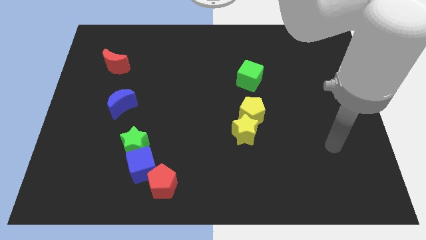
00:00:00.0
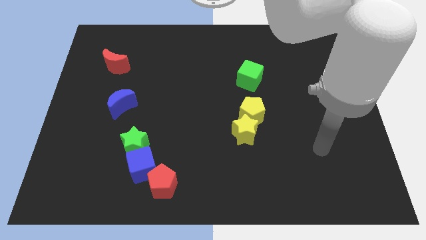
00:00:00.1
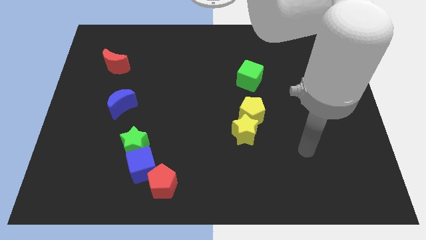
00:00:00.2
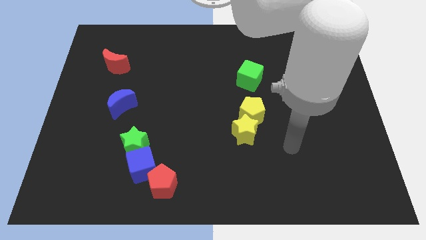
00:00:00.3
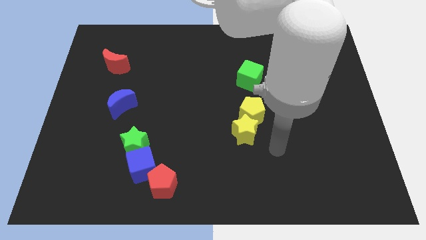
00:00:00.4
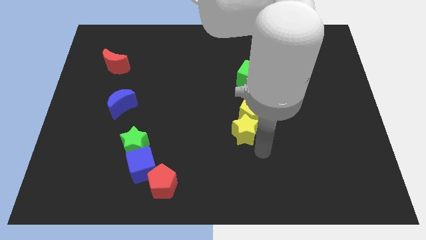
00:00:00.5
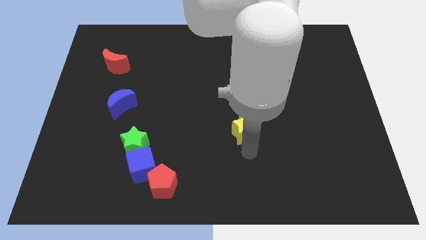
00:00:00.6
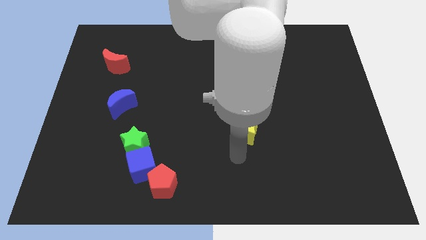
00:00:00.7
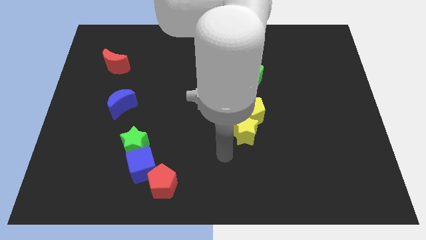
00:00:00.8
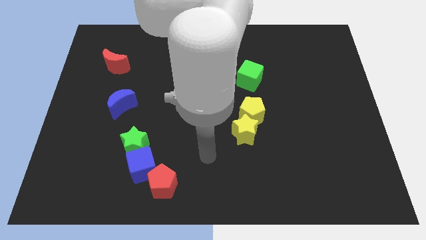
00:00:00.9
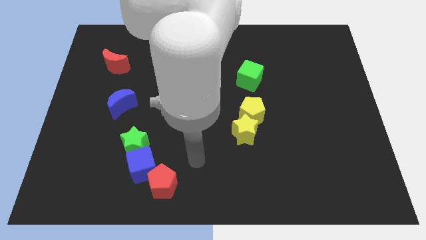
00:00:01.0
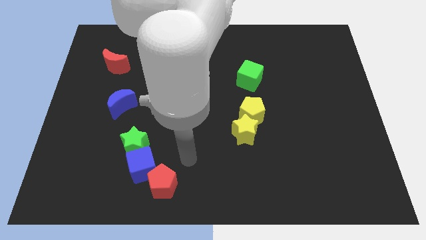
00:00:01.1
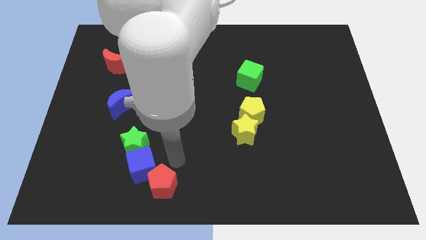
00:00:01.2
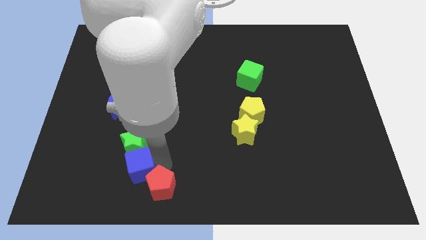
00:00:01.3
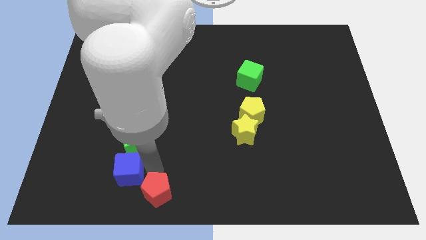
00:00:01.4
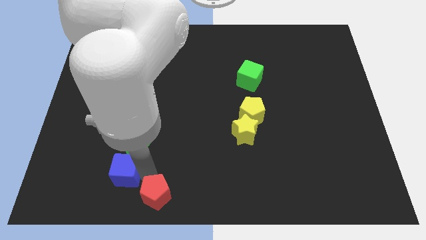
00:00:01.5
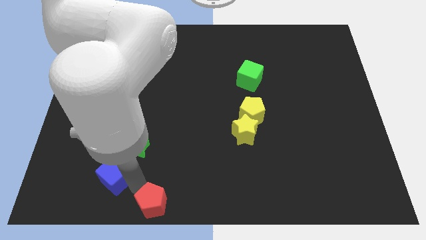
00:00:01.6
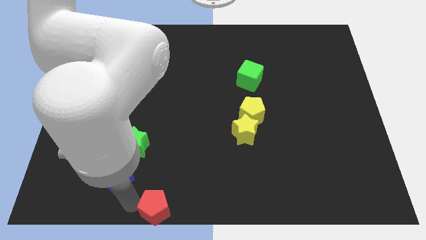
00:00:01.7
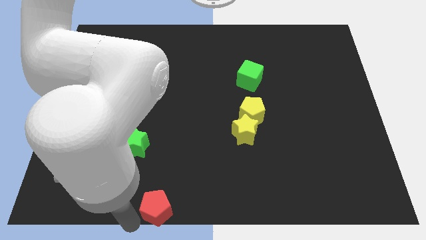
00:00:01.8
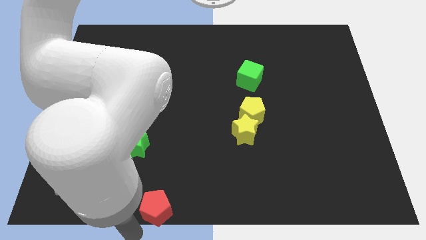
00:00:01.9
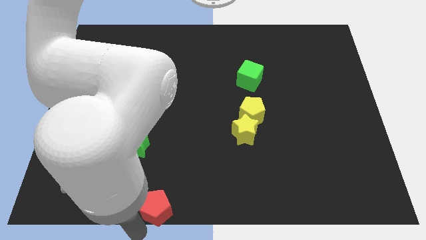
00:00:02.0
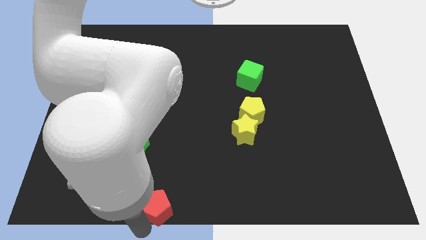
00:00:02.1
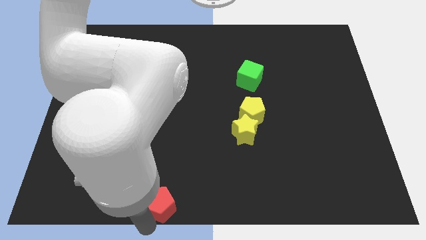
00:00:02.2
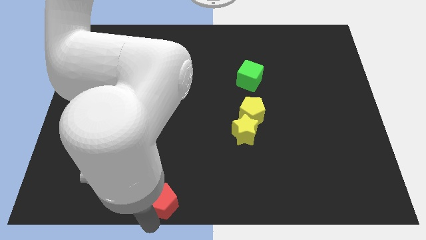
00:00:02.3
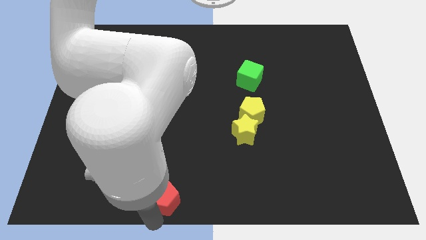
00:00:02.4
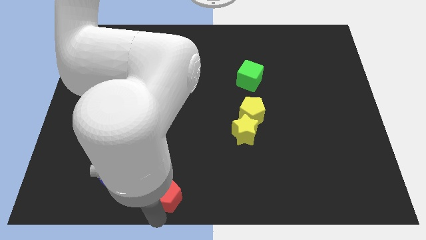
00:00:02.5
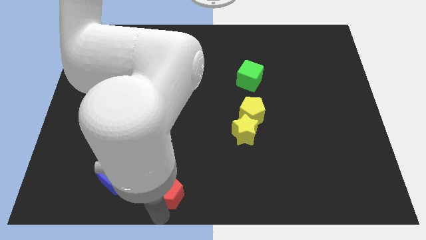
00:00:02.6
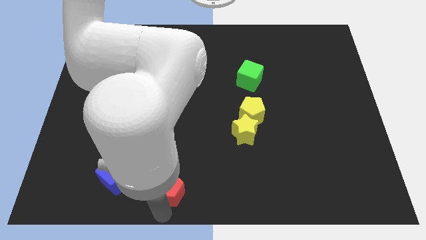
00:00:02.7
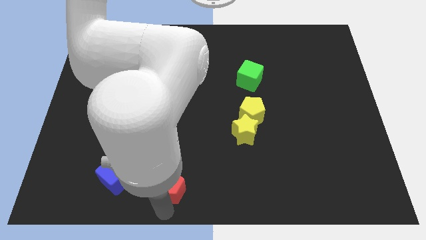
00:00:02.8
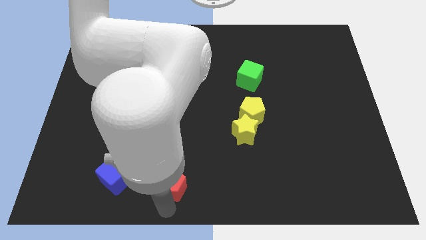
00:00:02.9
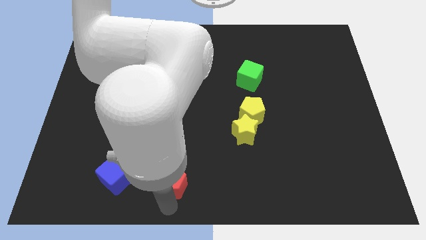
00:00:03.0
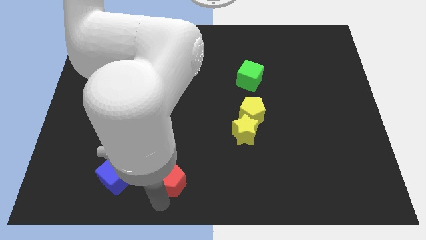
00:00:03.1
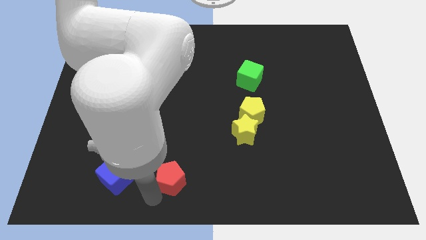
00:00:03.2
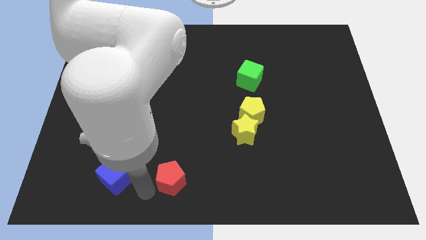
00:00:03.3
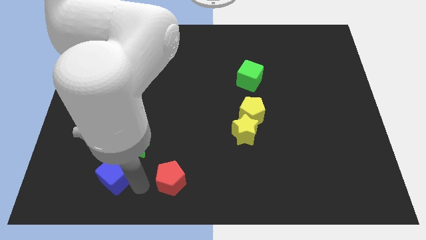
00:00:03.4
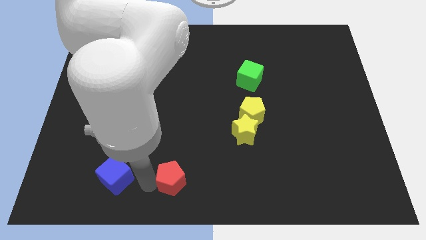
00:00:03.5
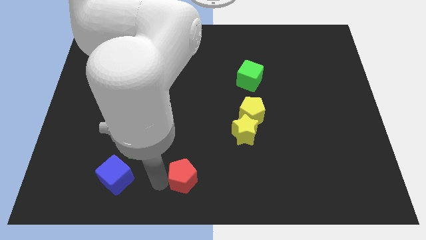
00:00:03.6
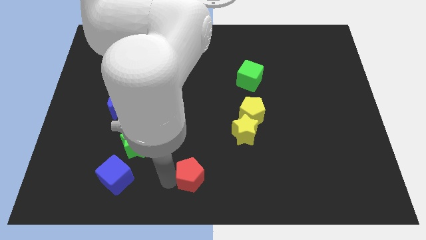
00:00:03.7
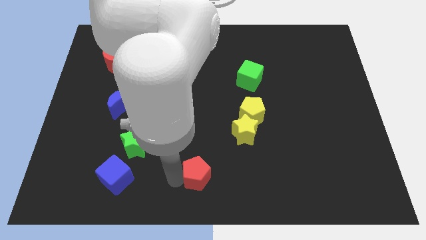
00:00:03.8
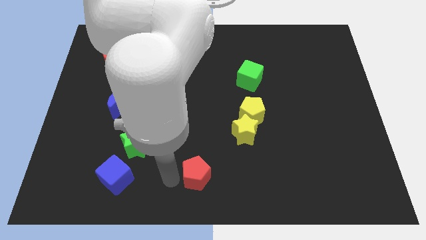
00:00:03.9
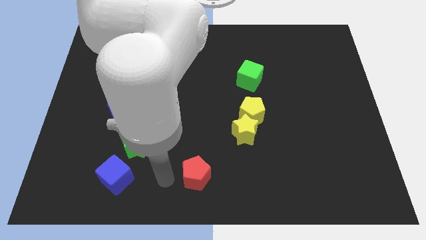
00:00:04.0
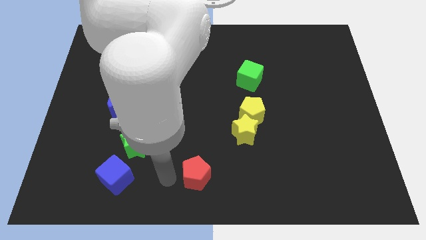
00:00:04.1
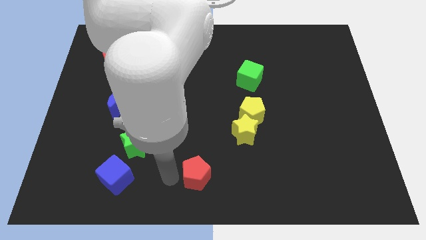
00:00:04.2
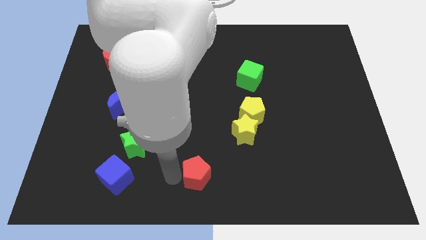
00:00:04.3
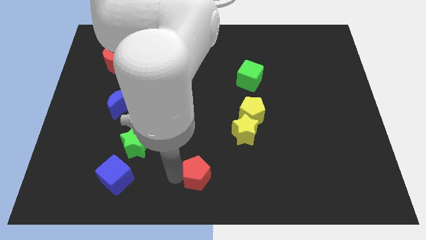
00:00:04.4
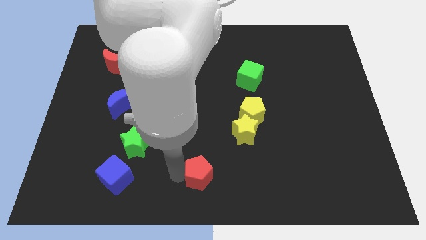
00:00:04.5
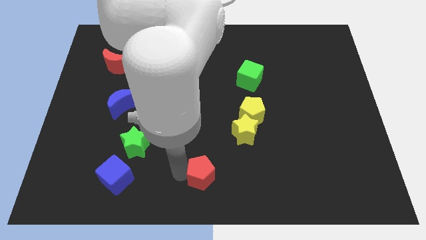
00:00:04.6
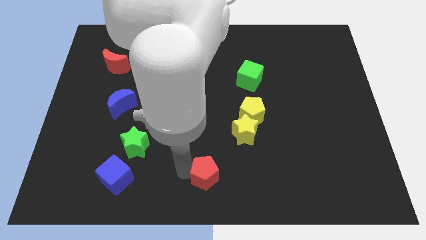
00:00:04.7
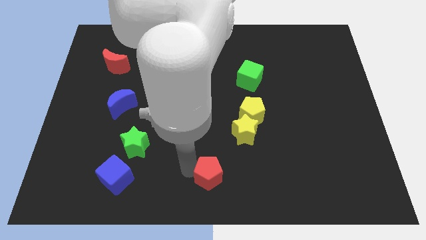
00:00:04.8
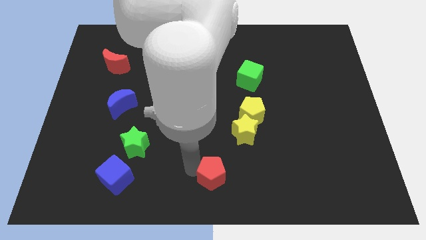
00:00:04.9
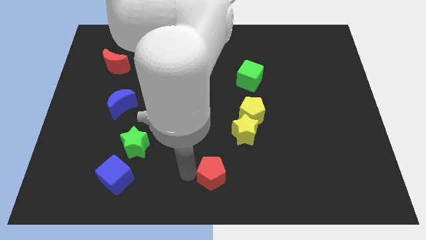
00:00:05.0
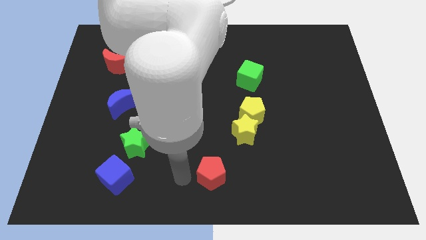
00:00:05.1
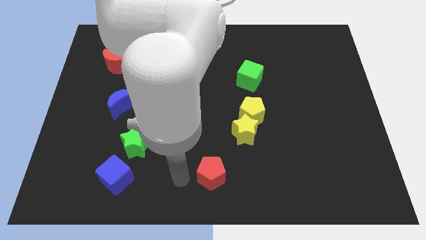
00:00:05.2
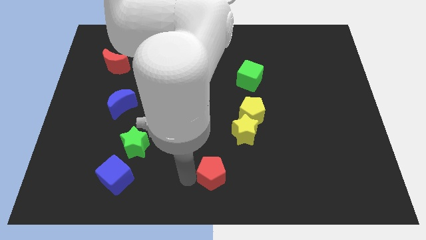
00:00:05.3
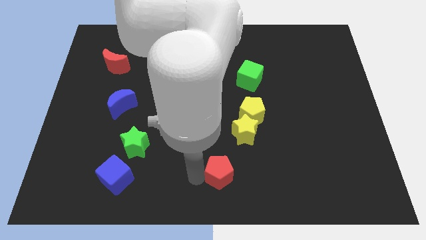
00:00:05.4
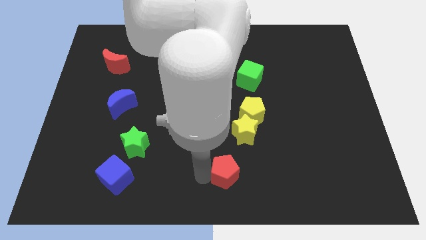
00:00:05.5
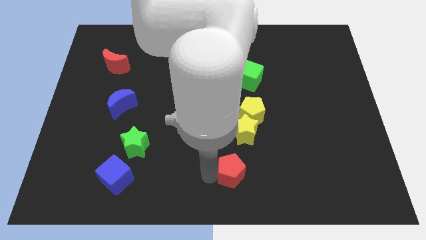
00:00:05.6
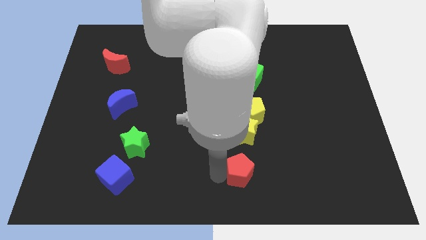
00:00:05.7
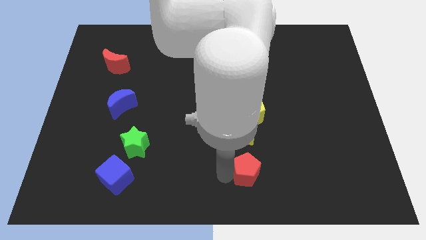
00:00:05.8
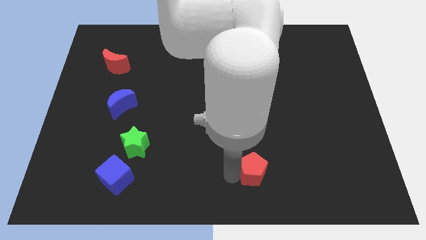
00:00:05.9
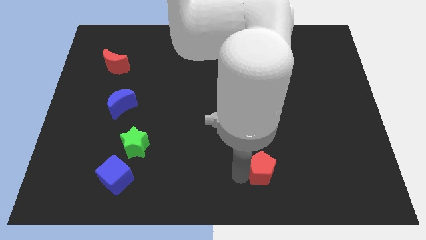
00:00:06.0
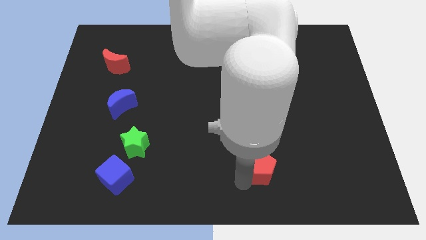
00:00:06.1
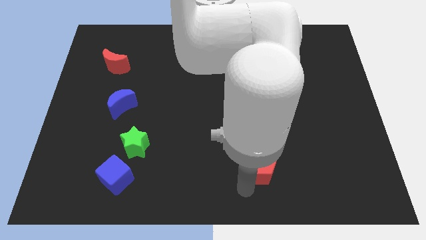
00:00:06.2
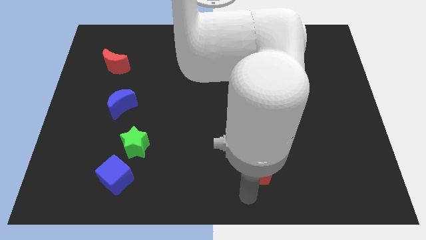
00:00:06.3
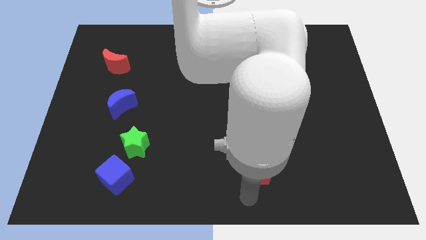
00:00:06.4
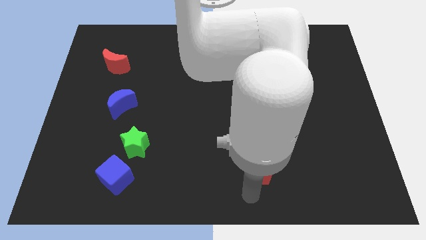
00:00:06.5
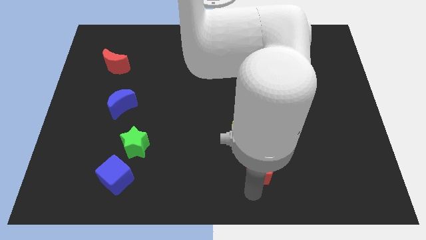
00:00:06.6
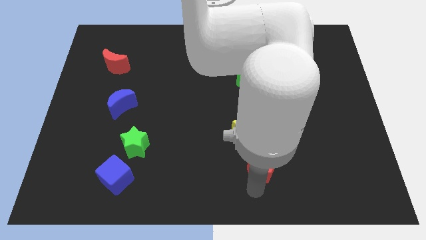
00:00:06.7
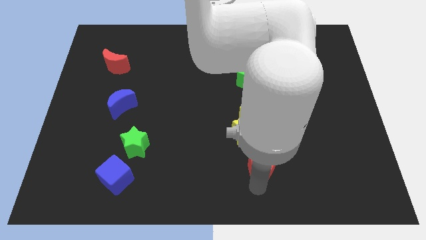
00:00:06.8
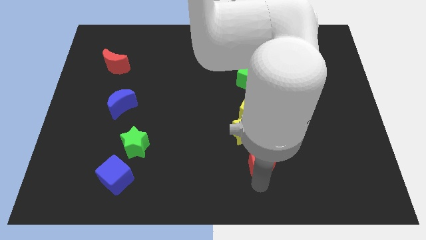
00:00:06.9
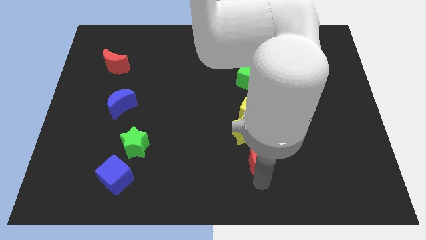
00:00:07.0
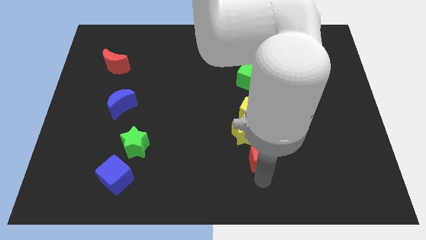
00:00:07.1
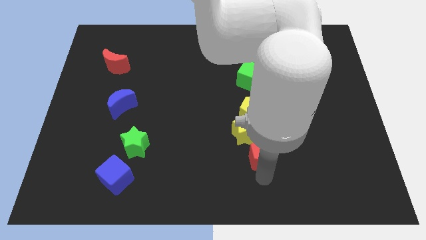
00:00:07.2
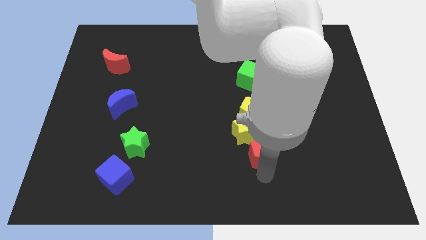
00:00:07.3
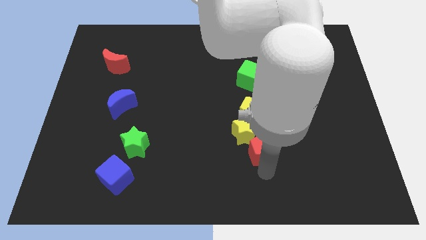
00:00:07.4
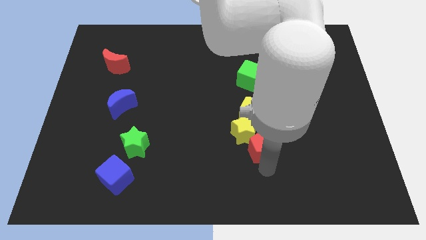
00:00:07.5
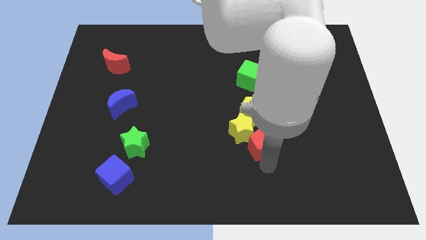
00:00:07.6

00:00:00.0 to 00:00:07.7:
push the red pentagon diagonally down and to the right of the yellow pentagon

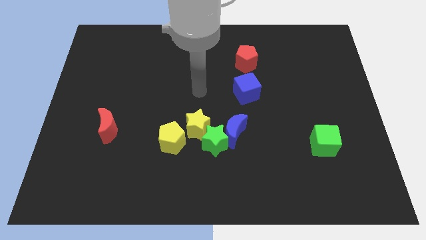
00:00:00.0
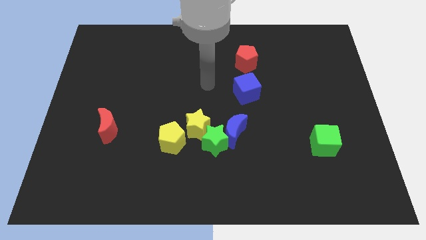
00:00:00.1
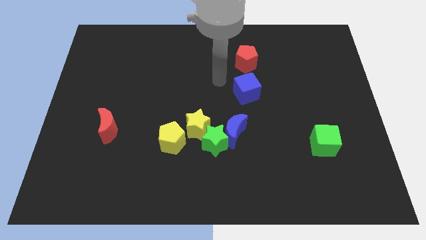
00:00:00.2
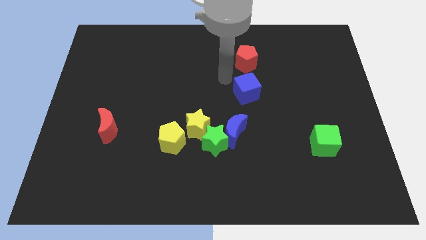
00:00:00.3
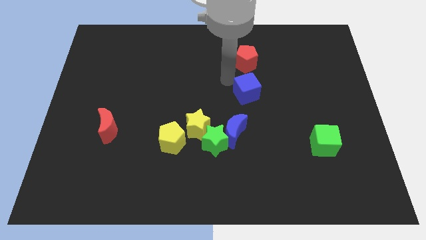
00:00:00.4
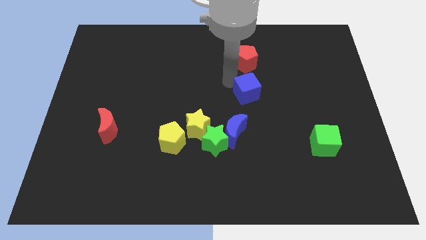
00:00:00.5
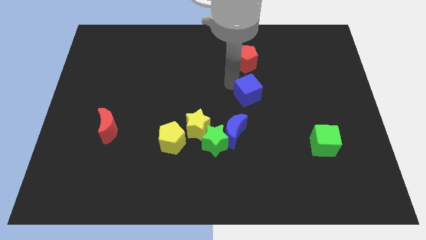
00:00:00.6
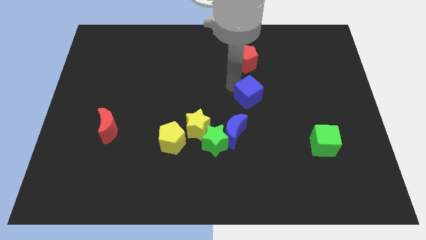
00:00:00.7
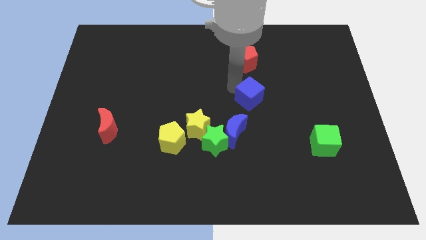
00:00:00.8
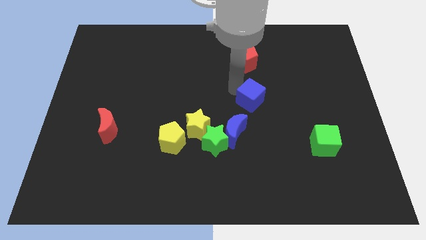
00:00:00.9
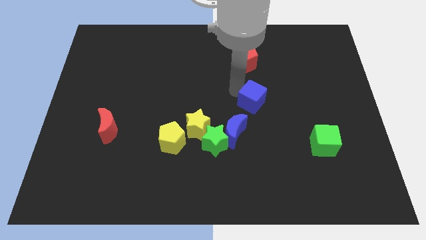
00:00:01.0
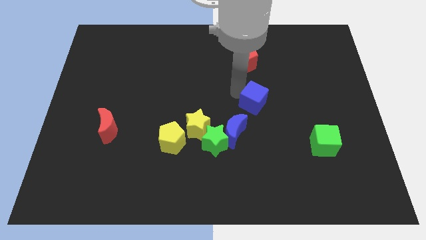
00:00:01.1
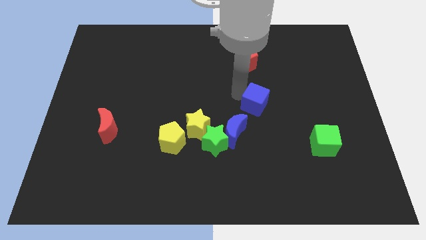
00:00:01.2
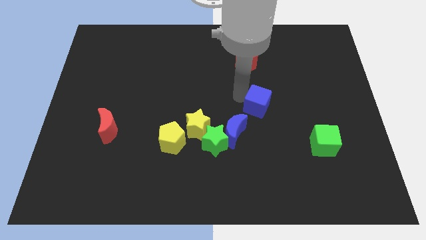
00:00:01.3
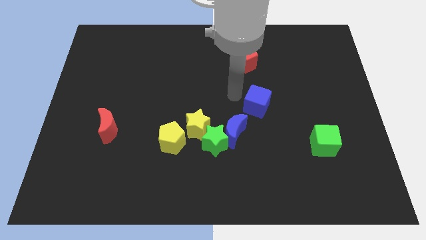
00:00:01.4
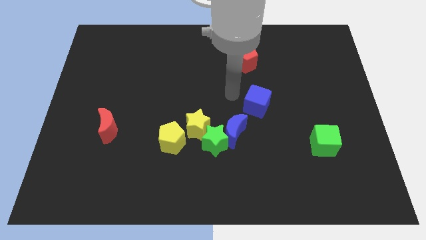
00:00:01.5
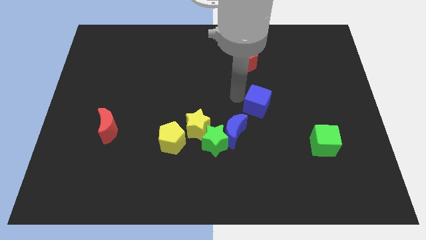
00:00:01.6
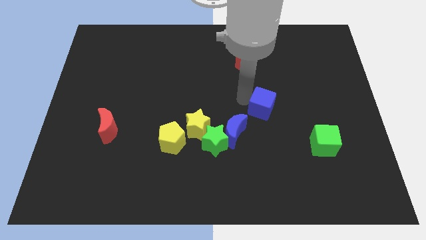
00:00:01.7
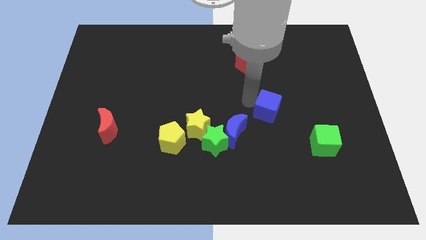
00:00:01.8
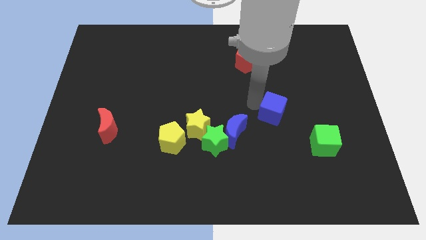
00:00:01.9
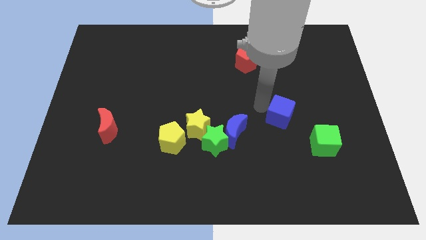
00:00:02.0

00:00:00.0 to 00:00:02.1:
slide the blue cube to the top left of the green cube
